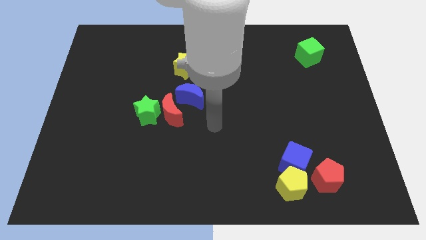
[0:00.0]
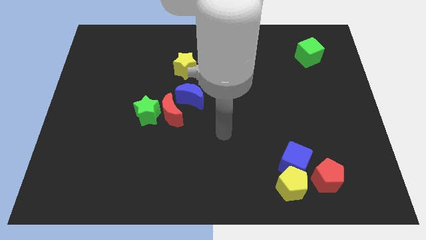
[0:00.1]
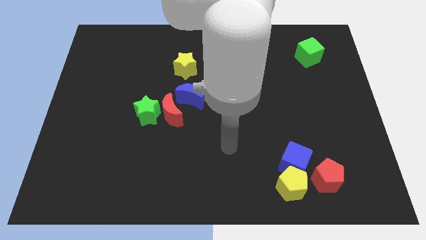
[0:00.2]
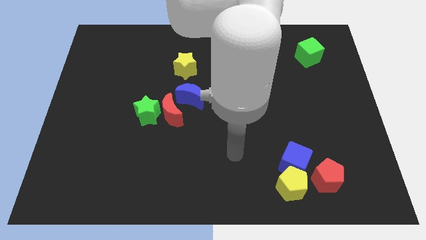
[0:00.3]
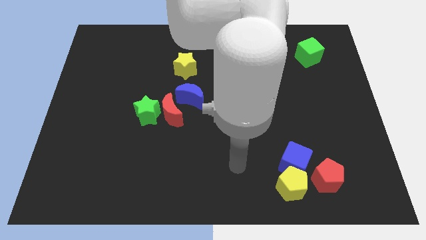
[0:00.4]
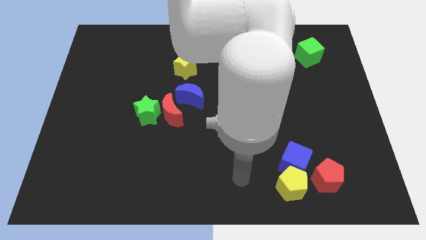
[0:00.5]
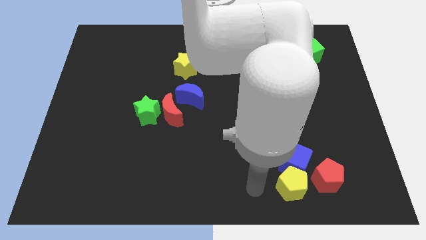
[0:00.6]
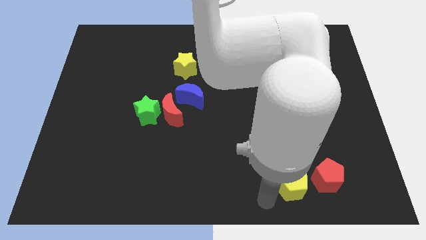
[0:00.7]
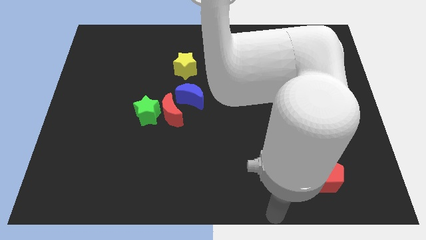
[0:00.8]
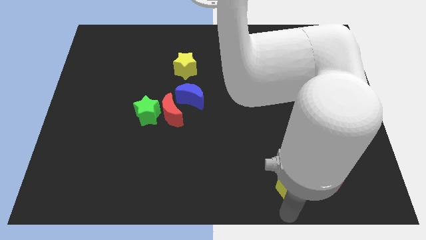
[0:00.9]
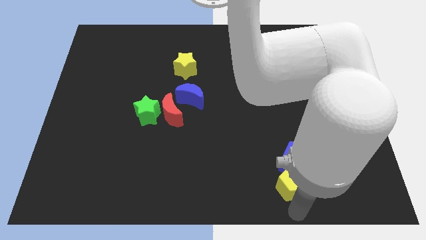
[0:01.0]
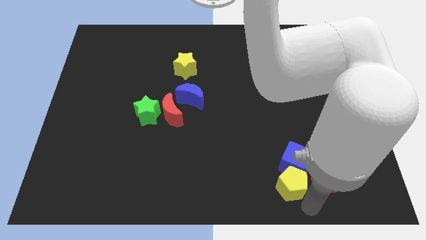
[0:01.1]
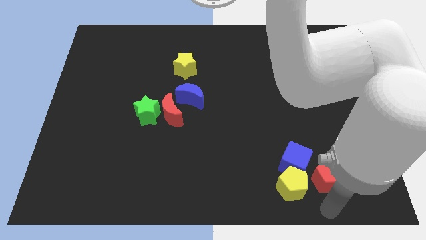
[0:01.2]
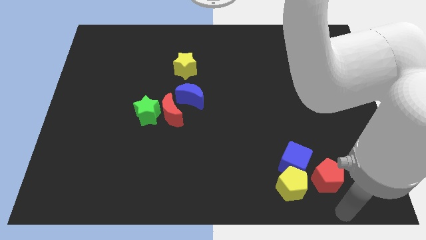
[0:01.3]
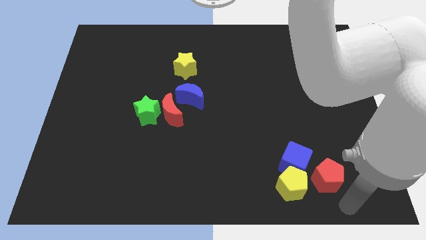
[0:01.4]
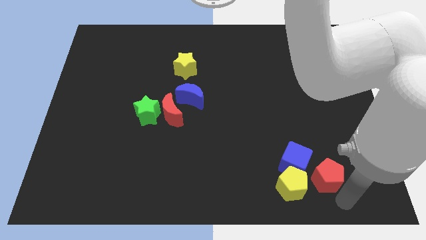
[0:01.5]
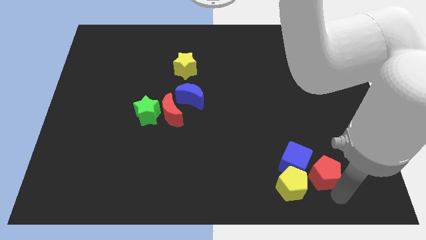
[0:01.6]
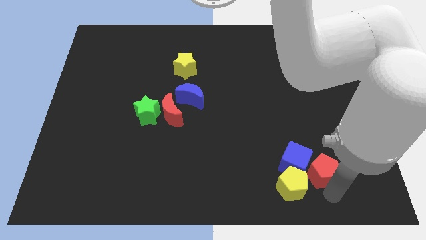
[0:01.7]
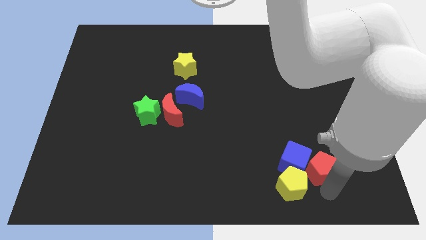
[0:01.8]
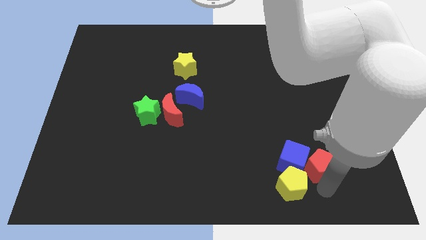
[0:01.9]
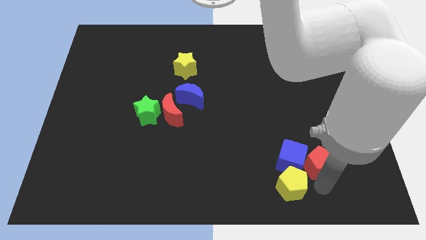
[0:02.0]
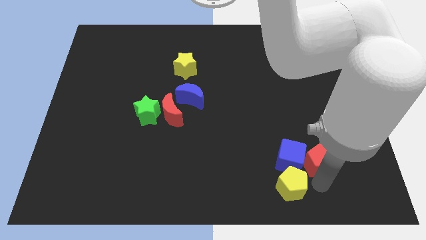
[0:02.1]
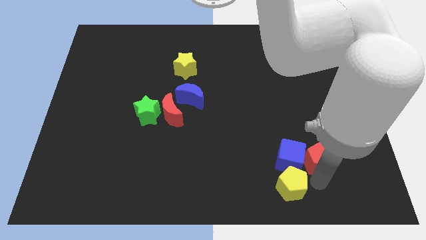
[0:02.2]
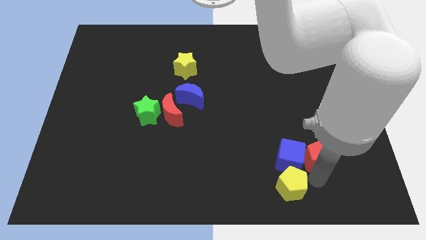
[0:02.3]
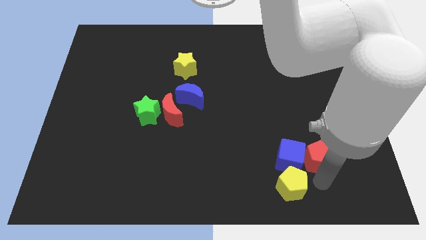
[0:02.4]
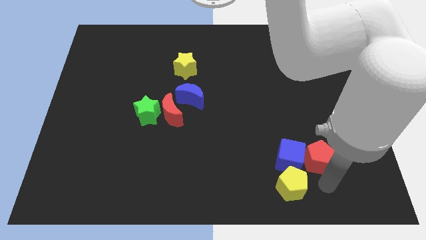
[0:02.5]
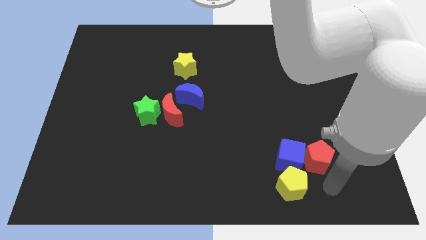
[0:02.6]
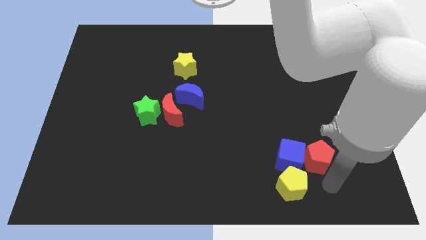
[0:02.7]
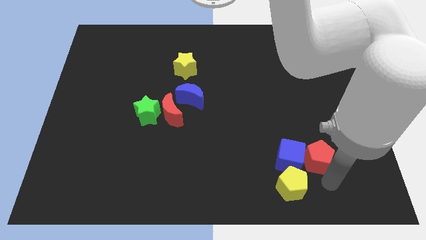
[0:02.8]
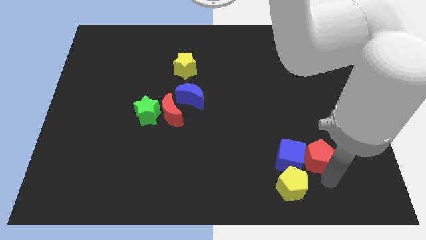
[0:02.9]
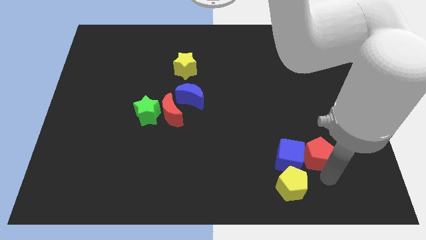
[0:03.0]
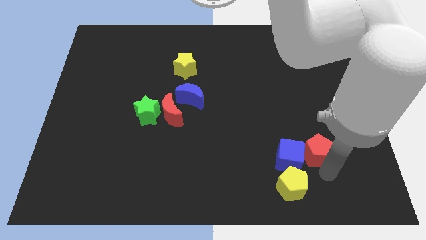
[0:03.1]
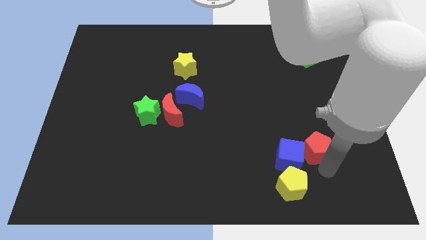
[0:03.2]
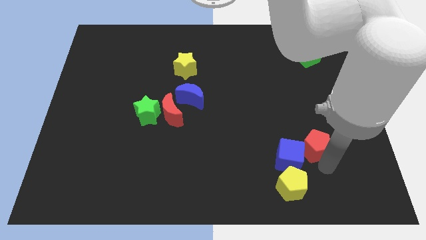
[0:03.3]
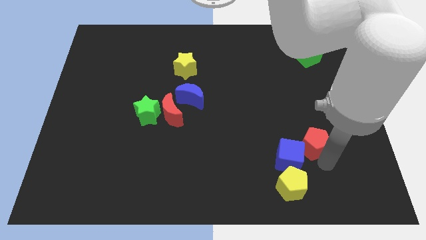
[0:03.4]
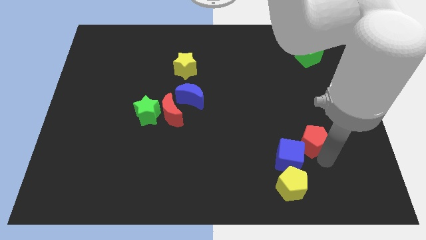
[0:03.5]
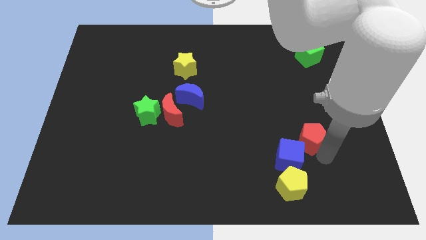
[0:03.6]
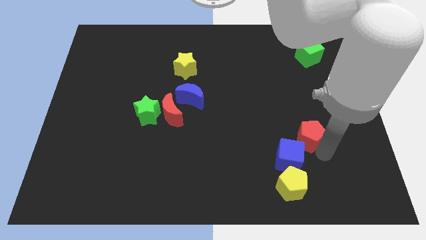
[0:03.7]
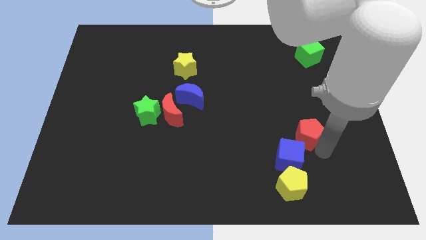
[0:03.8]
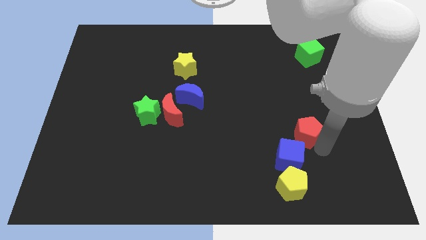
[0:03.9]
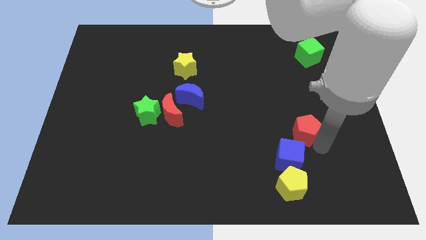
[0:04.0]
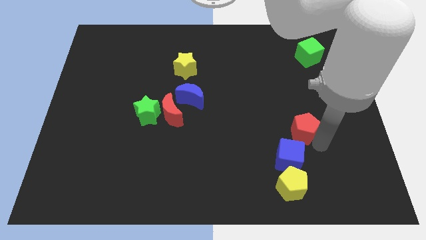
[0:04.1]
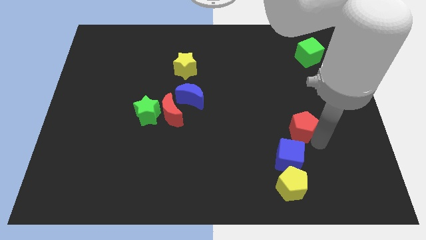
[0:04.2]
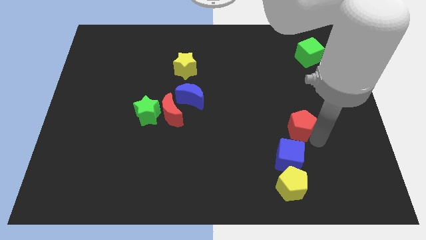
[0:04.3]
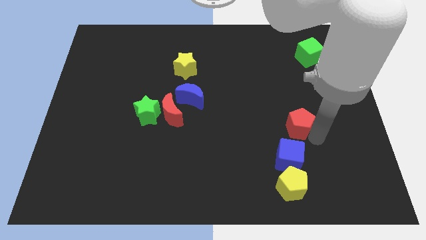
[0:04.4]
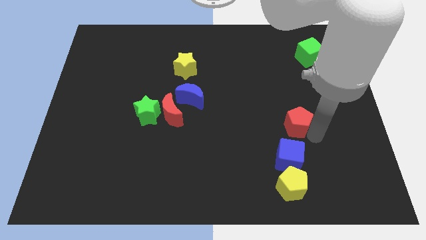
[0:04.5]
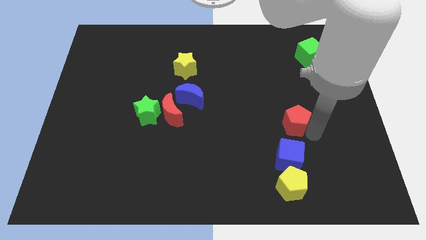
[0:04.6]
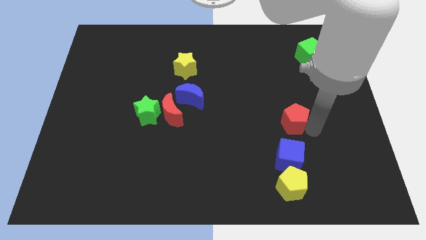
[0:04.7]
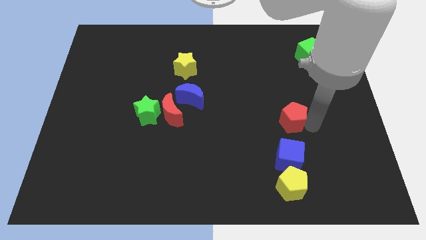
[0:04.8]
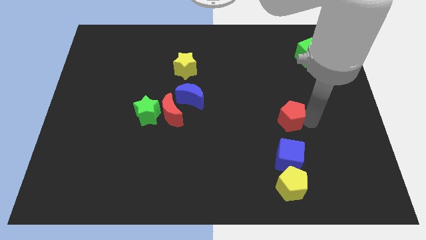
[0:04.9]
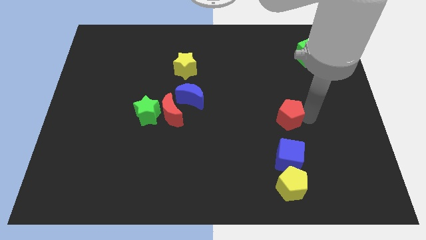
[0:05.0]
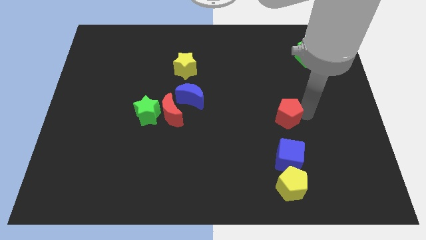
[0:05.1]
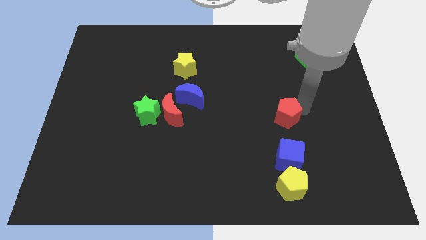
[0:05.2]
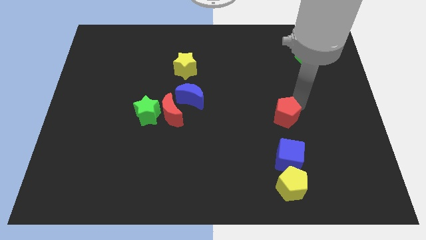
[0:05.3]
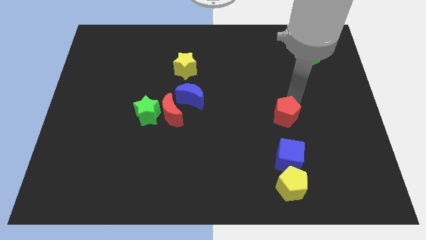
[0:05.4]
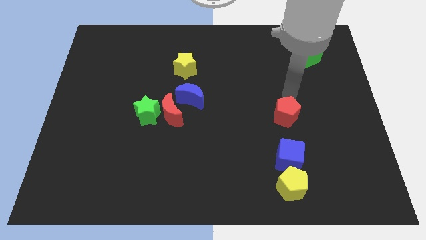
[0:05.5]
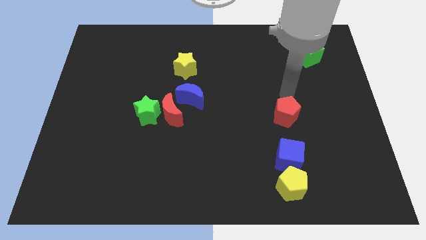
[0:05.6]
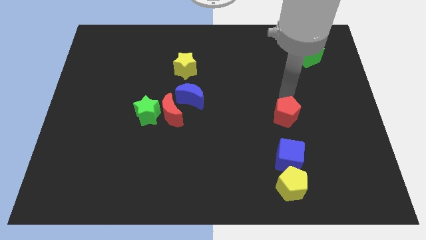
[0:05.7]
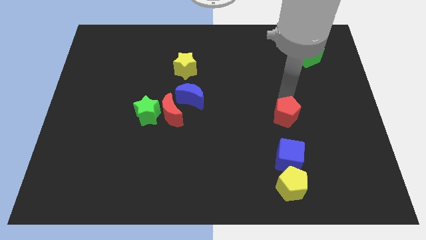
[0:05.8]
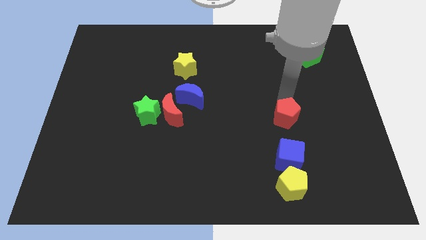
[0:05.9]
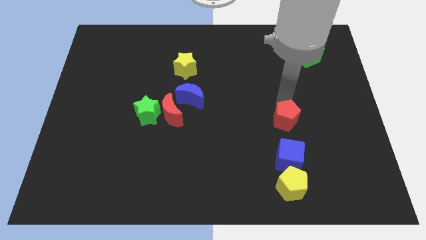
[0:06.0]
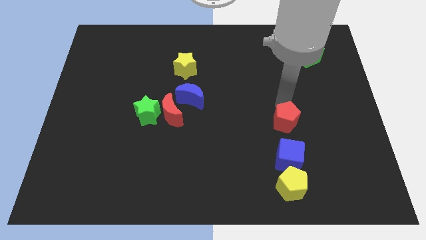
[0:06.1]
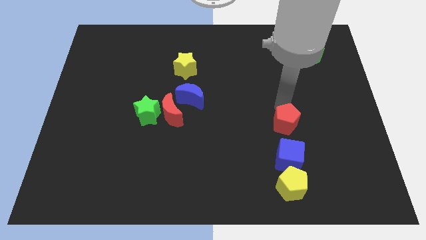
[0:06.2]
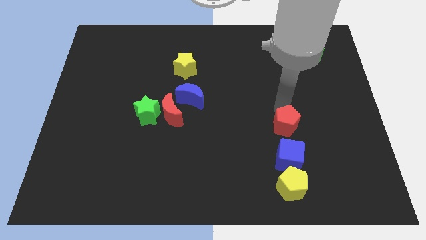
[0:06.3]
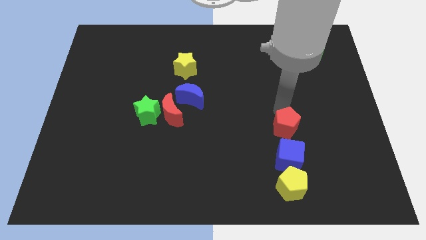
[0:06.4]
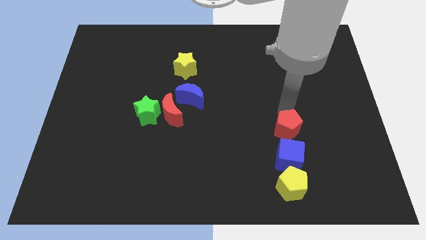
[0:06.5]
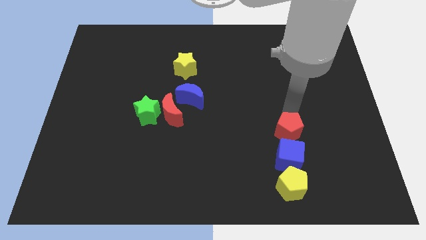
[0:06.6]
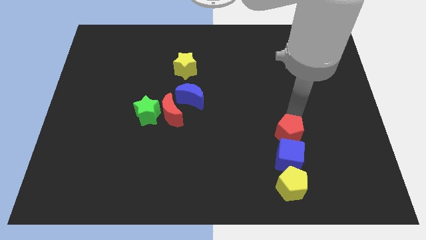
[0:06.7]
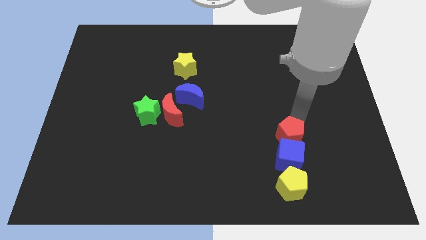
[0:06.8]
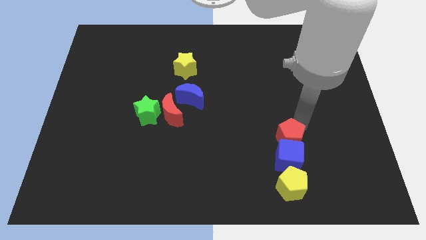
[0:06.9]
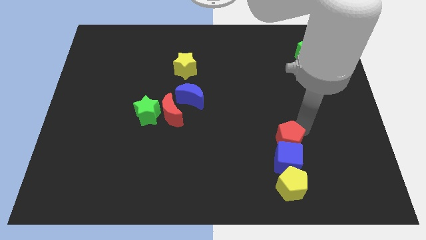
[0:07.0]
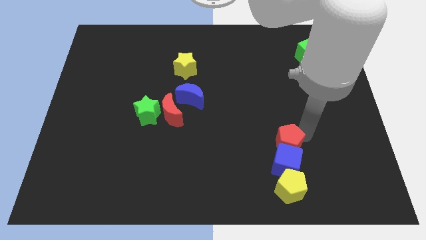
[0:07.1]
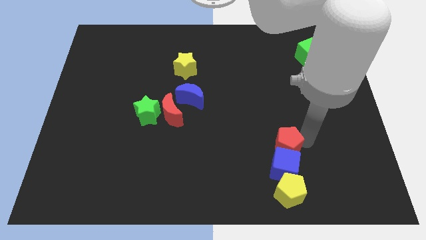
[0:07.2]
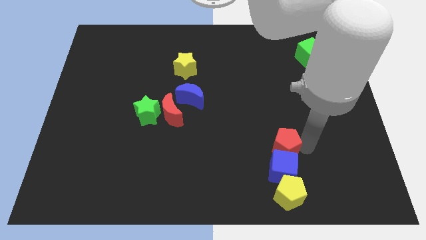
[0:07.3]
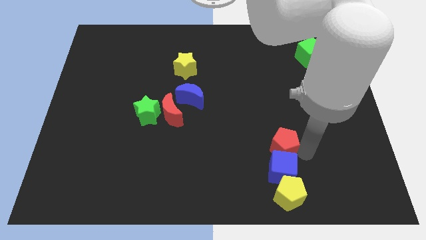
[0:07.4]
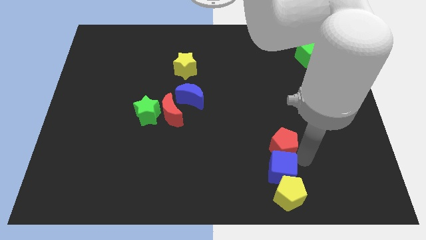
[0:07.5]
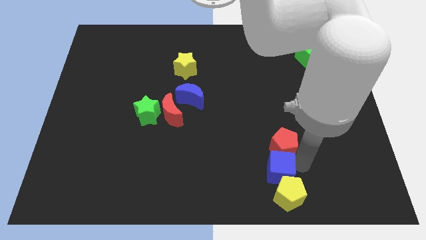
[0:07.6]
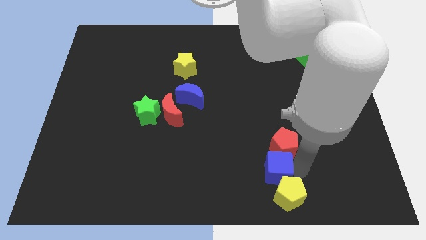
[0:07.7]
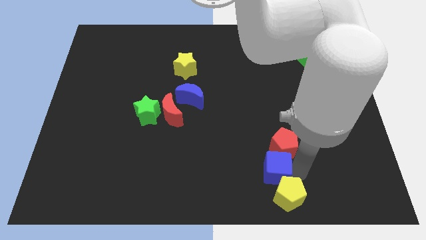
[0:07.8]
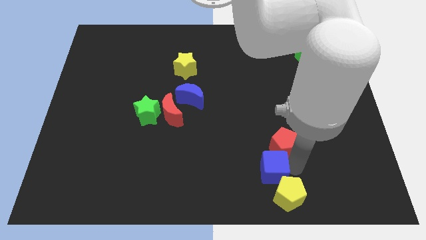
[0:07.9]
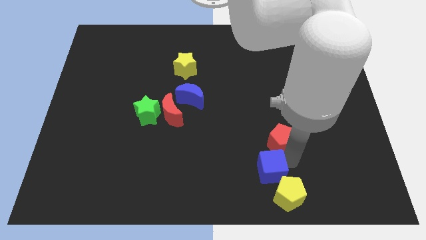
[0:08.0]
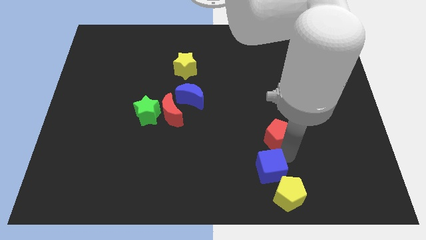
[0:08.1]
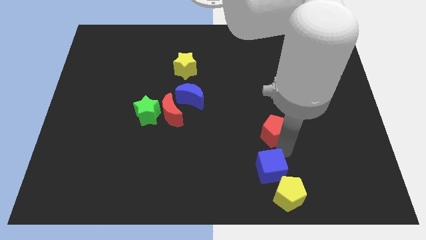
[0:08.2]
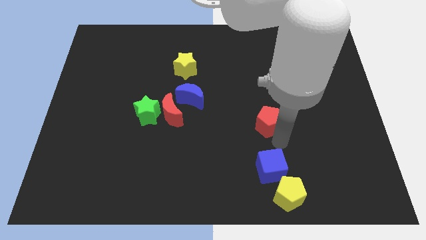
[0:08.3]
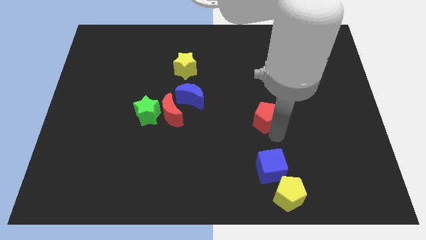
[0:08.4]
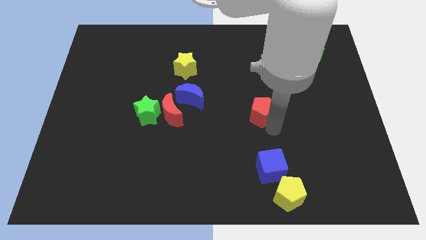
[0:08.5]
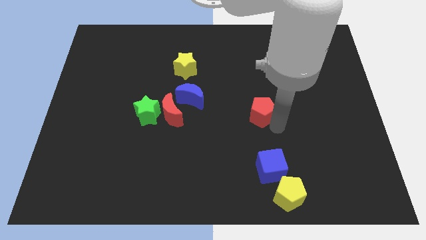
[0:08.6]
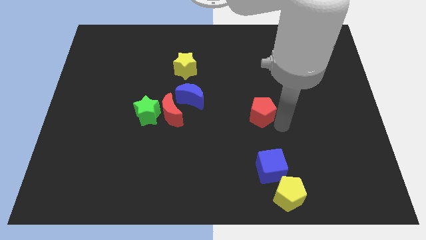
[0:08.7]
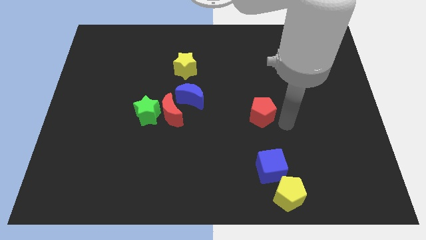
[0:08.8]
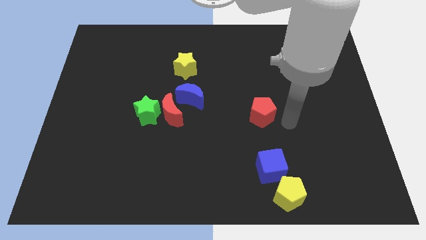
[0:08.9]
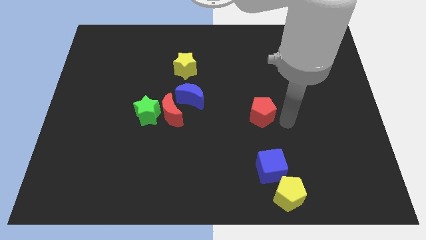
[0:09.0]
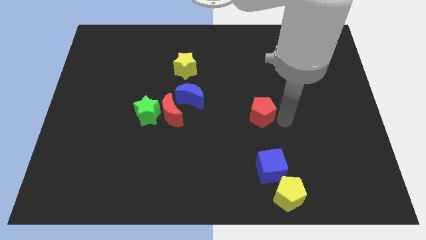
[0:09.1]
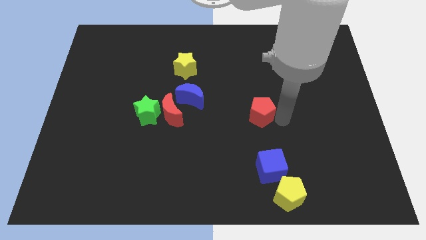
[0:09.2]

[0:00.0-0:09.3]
move the red pentagon upwards and then to the left
